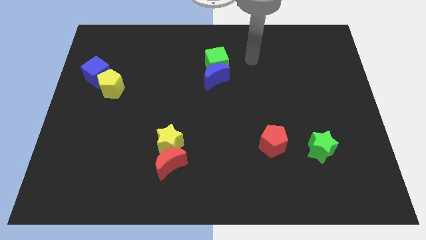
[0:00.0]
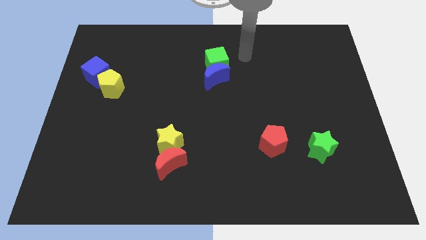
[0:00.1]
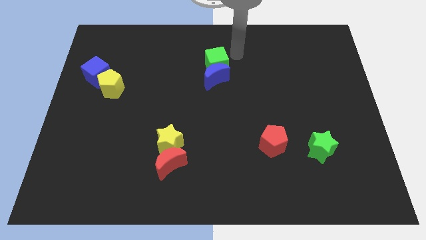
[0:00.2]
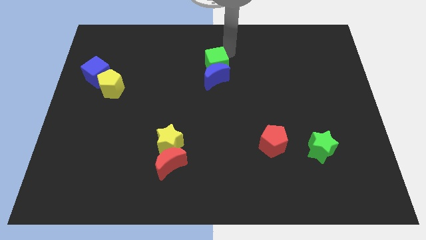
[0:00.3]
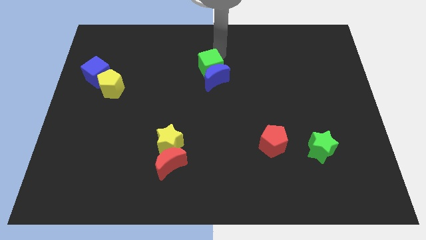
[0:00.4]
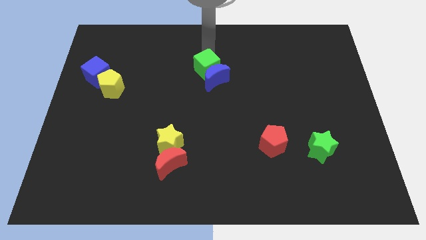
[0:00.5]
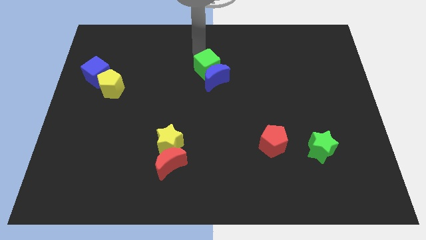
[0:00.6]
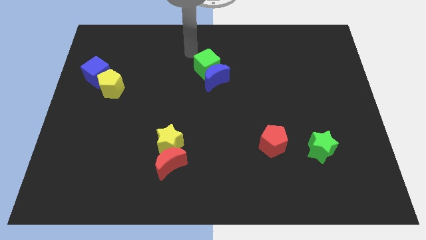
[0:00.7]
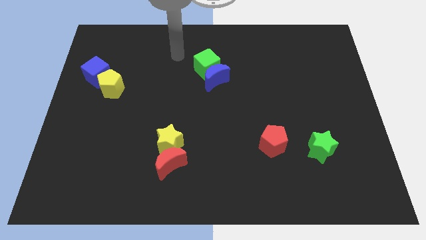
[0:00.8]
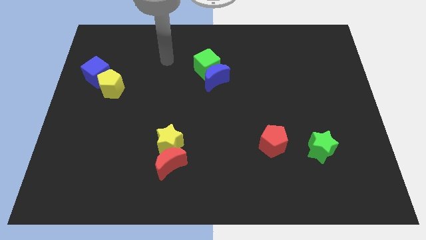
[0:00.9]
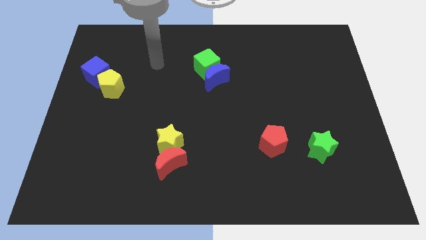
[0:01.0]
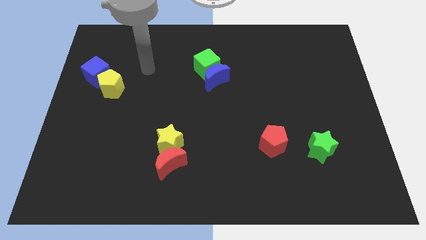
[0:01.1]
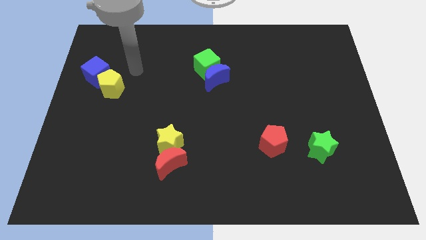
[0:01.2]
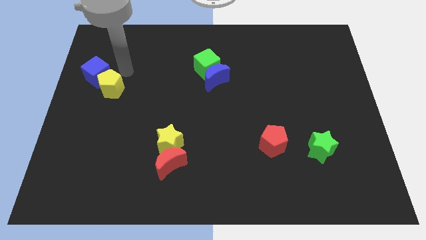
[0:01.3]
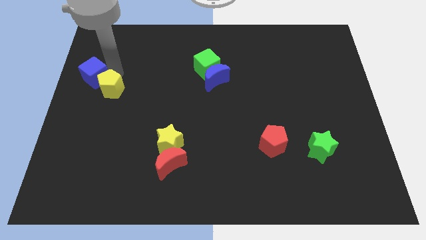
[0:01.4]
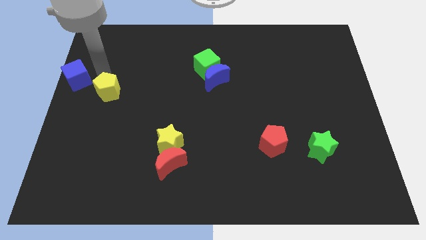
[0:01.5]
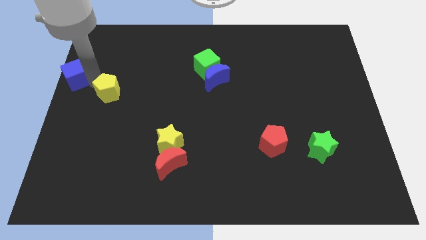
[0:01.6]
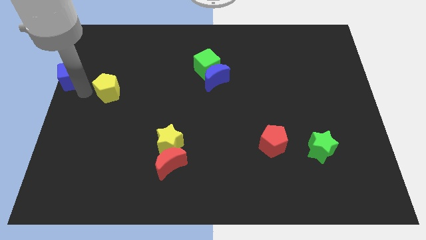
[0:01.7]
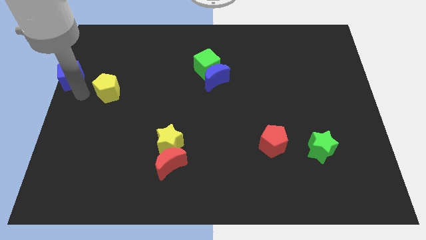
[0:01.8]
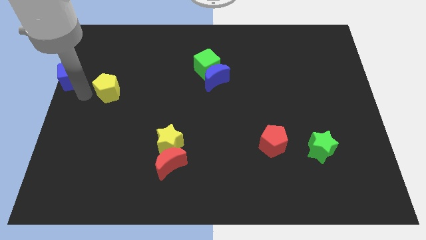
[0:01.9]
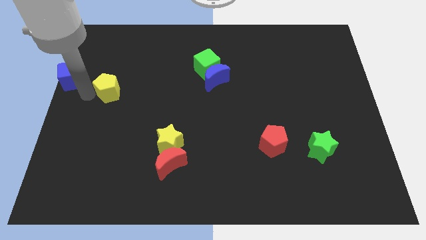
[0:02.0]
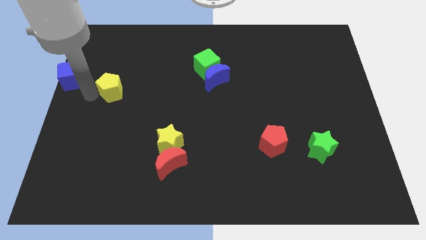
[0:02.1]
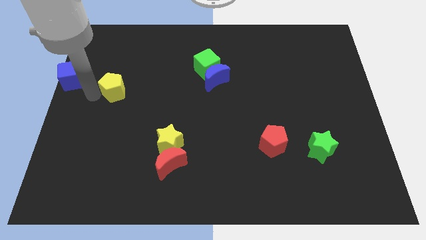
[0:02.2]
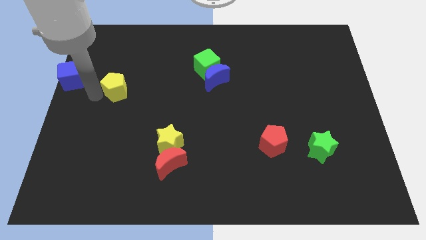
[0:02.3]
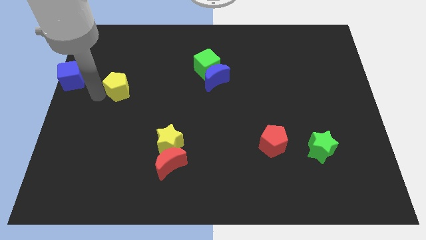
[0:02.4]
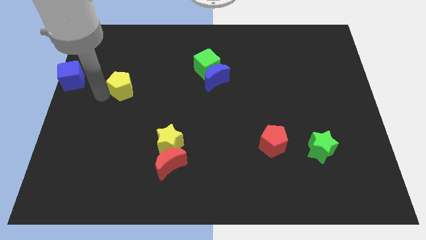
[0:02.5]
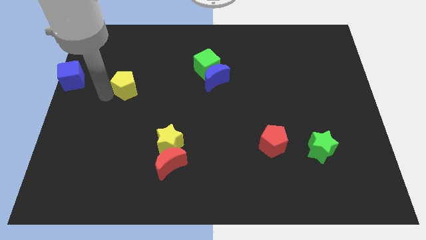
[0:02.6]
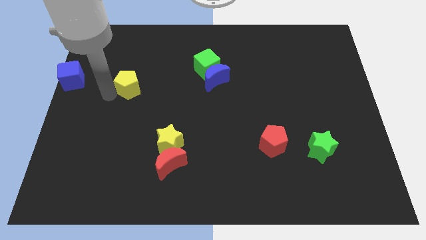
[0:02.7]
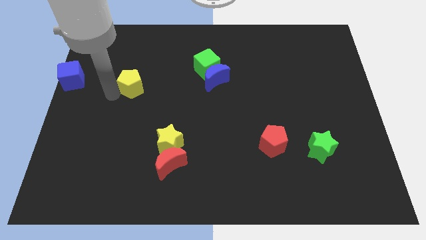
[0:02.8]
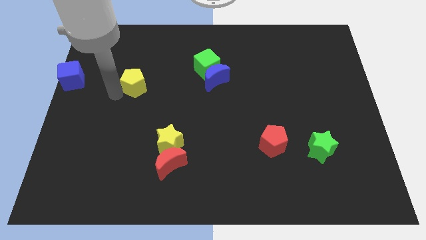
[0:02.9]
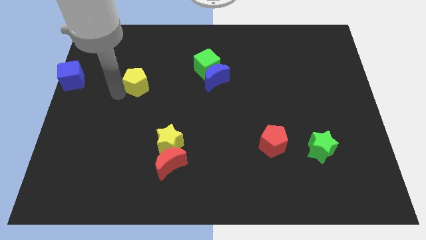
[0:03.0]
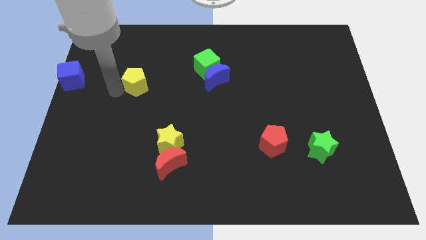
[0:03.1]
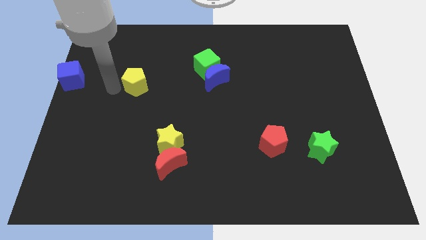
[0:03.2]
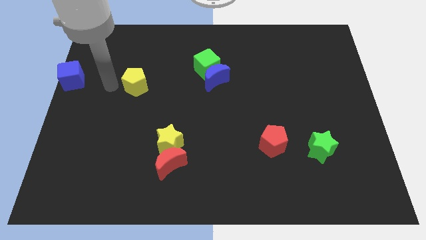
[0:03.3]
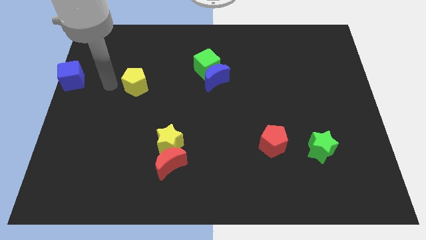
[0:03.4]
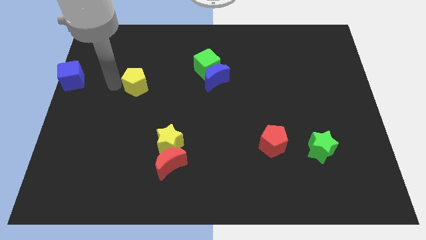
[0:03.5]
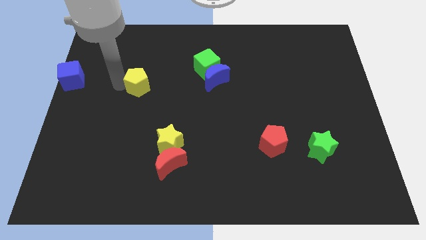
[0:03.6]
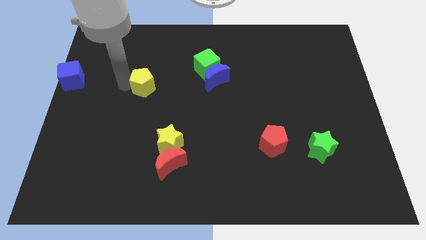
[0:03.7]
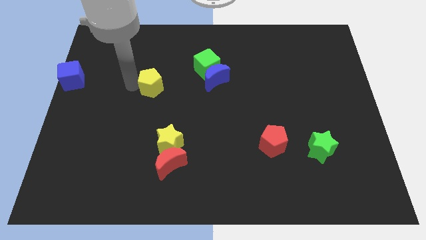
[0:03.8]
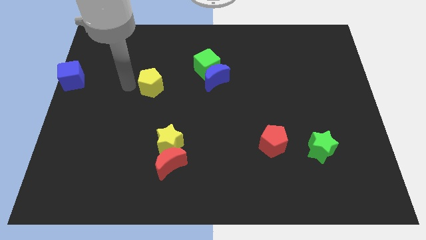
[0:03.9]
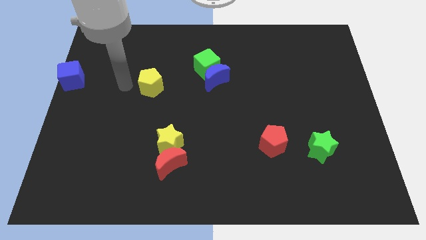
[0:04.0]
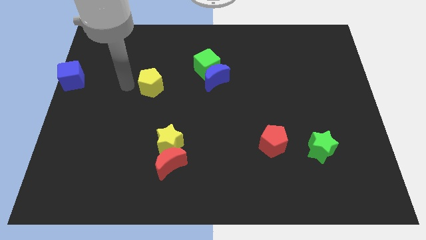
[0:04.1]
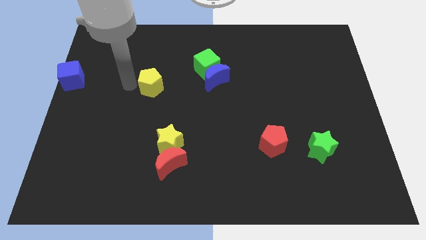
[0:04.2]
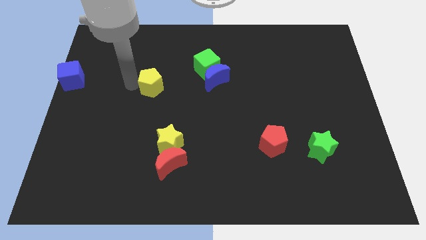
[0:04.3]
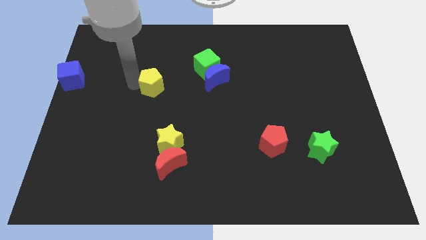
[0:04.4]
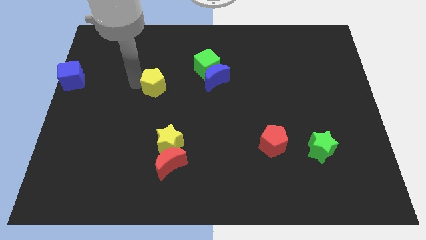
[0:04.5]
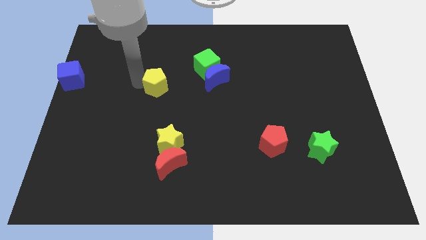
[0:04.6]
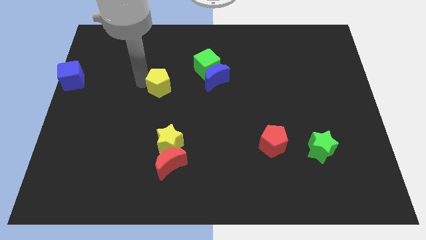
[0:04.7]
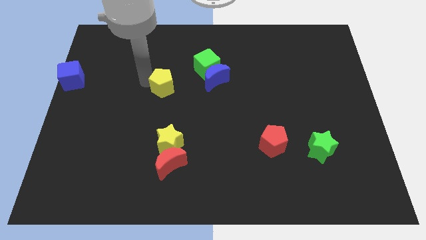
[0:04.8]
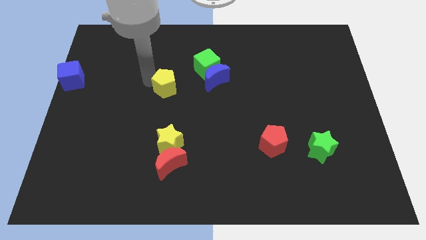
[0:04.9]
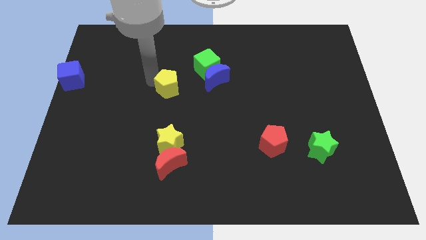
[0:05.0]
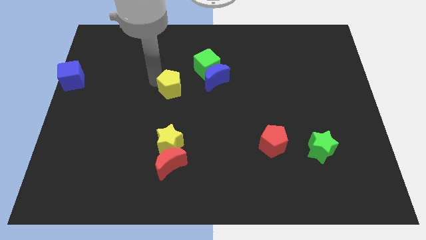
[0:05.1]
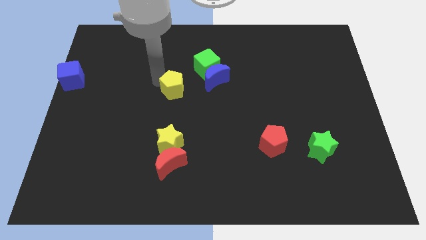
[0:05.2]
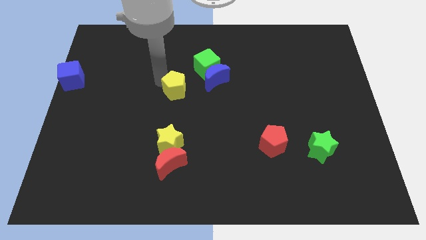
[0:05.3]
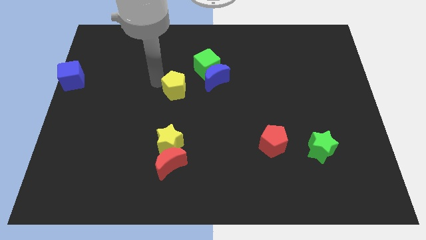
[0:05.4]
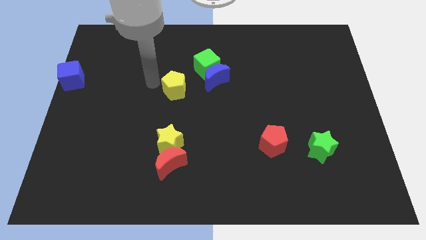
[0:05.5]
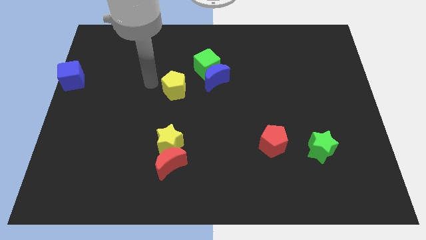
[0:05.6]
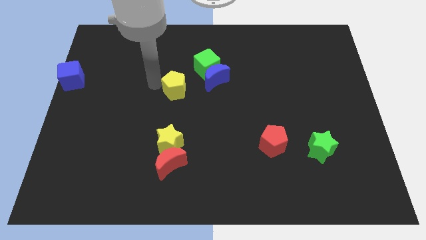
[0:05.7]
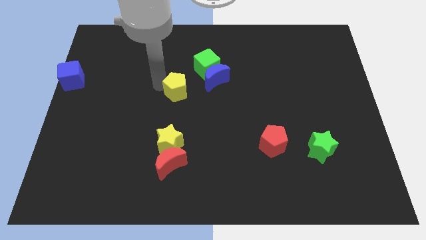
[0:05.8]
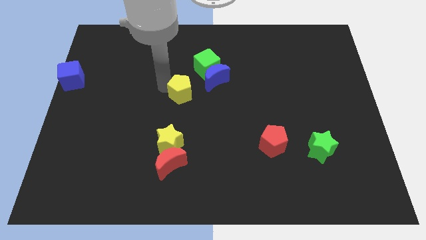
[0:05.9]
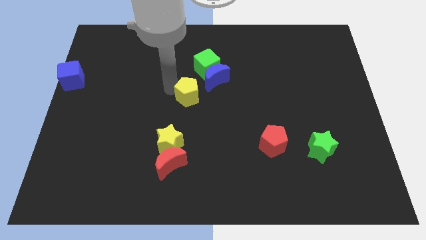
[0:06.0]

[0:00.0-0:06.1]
push the yellow pentagon to the bottom of the green cube

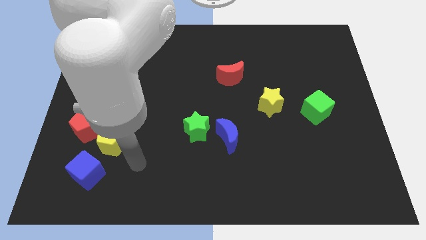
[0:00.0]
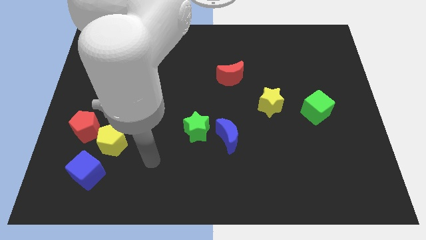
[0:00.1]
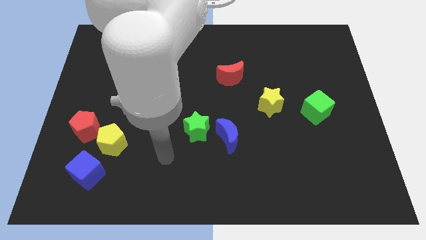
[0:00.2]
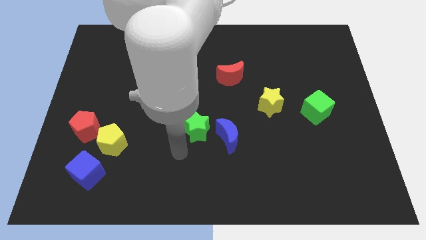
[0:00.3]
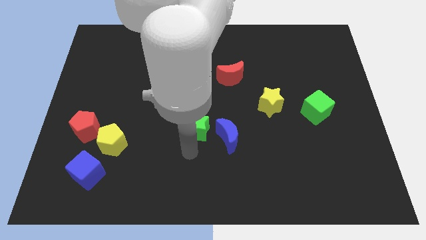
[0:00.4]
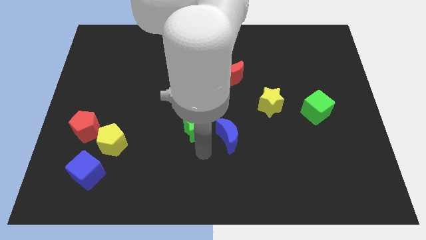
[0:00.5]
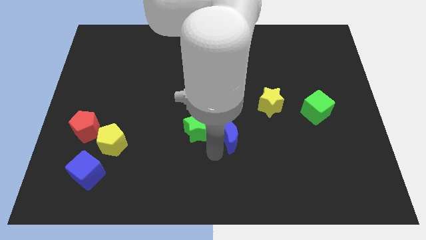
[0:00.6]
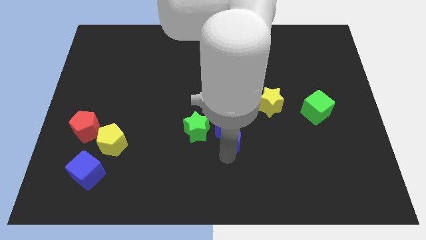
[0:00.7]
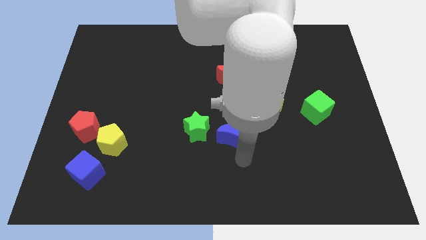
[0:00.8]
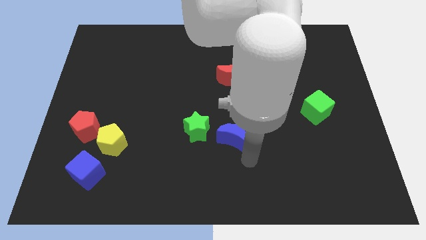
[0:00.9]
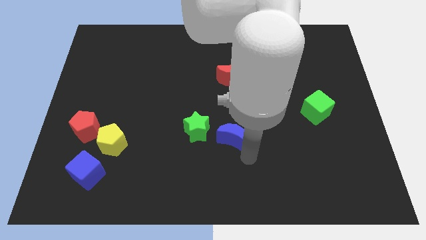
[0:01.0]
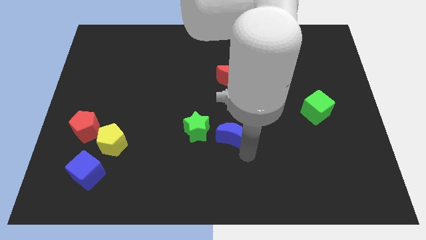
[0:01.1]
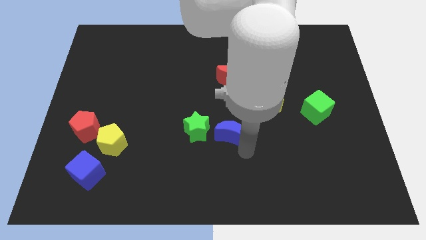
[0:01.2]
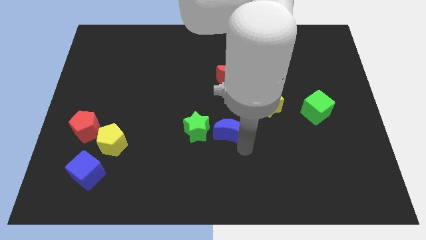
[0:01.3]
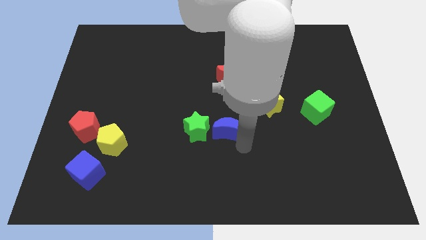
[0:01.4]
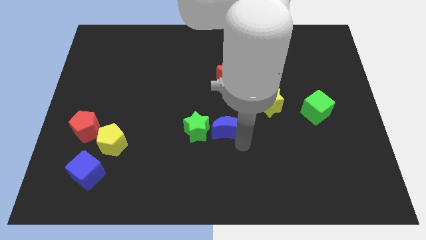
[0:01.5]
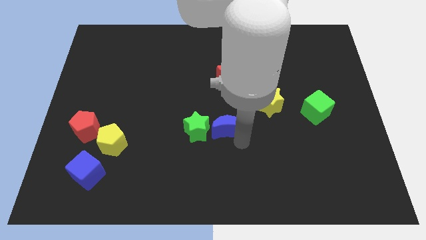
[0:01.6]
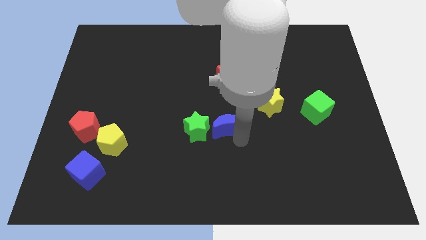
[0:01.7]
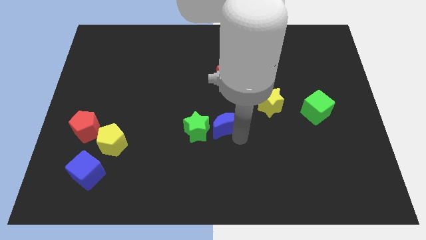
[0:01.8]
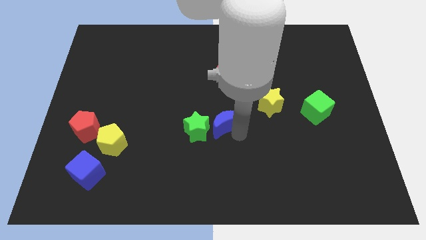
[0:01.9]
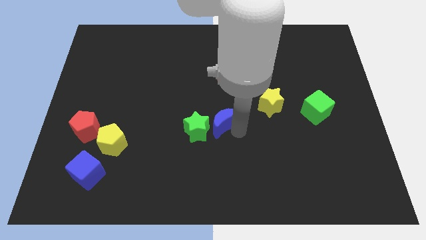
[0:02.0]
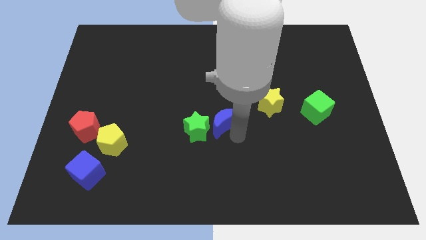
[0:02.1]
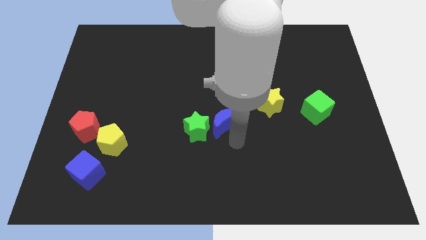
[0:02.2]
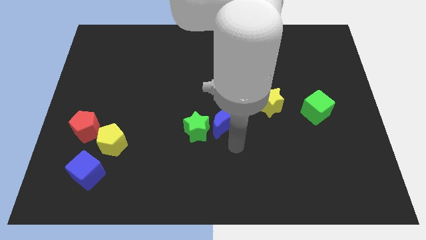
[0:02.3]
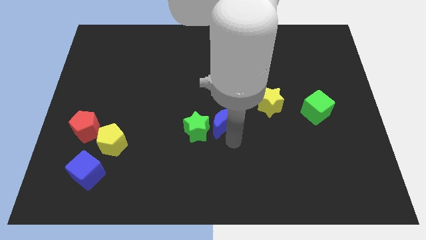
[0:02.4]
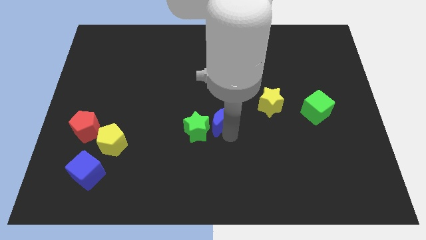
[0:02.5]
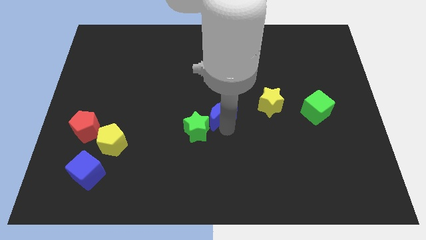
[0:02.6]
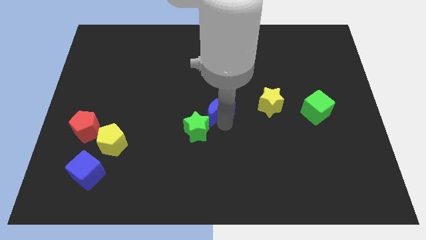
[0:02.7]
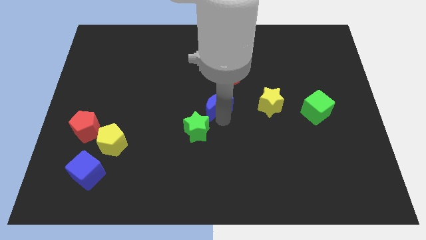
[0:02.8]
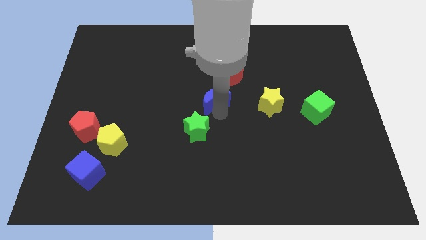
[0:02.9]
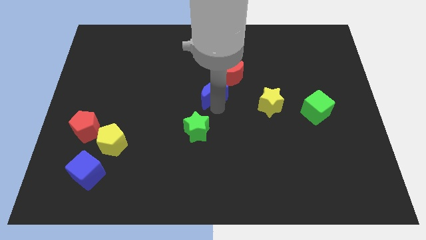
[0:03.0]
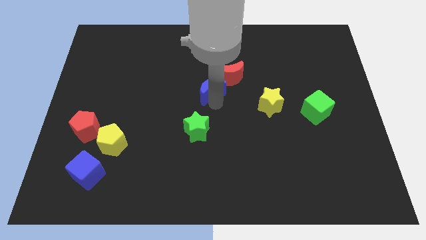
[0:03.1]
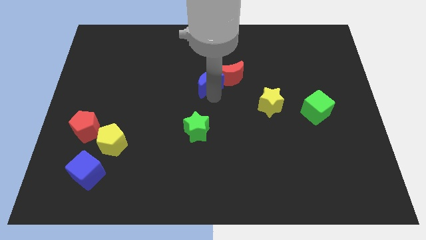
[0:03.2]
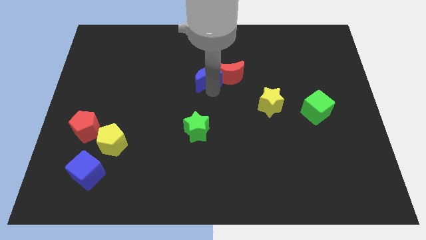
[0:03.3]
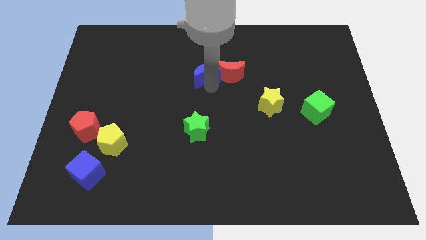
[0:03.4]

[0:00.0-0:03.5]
push the blue moon to the top left of the red moon
